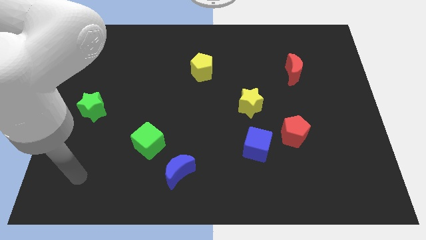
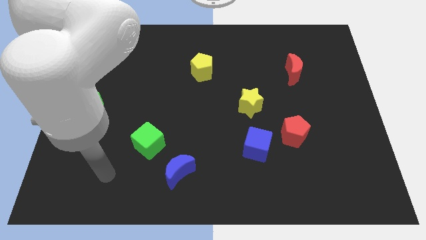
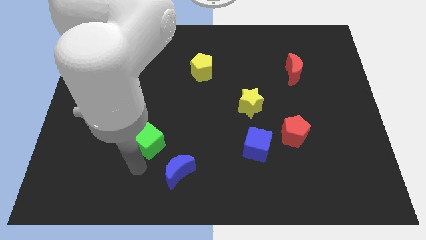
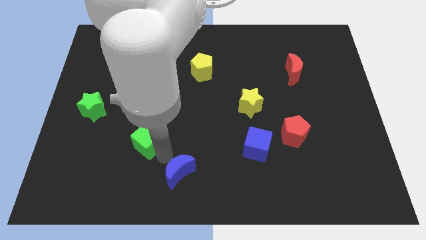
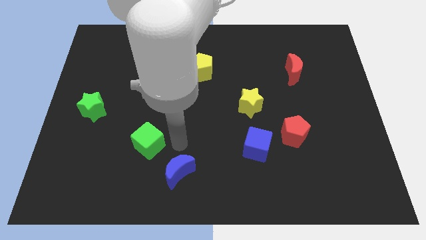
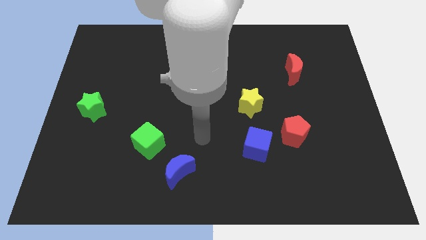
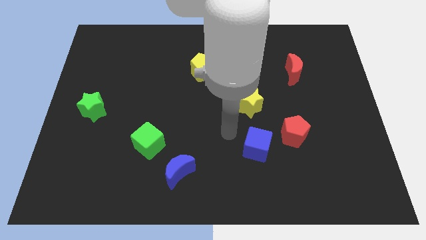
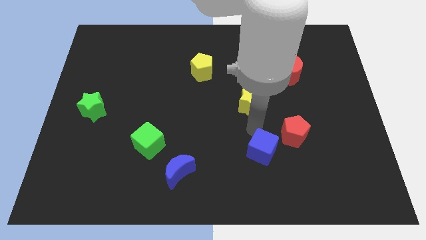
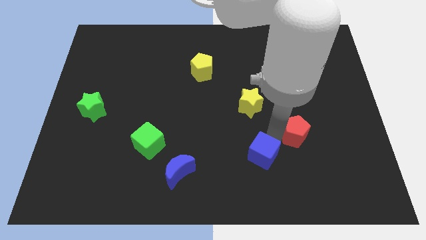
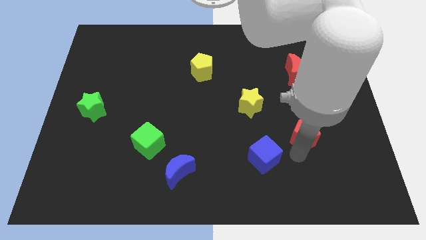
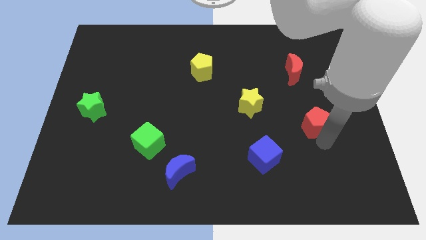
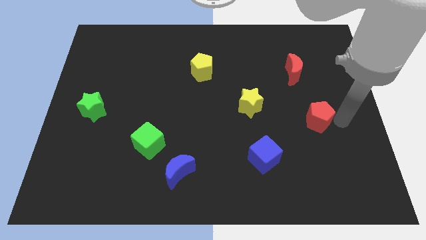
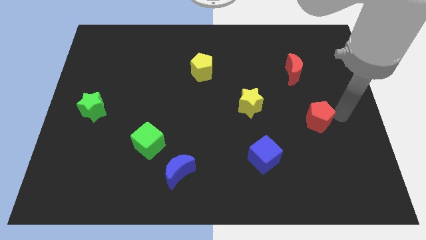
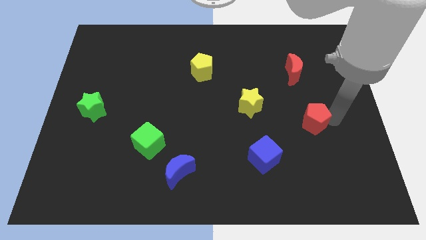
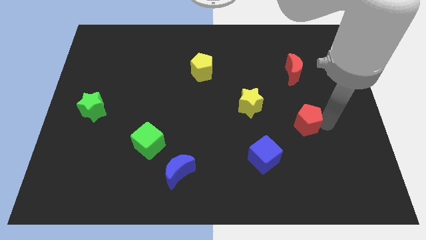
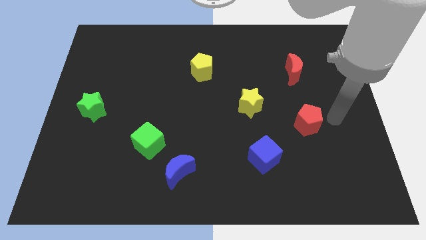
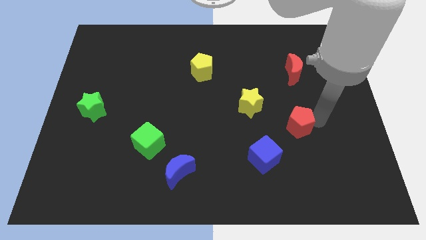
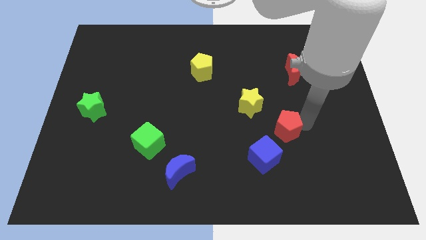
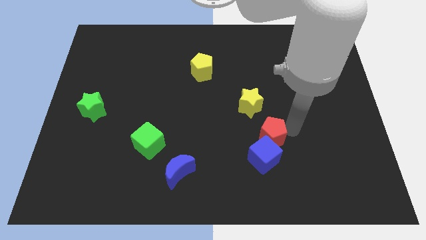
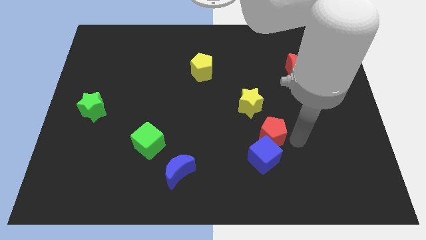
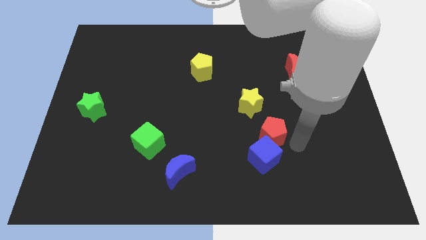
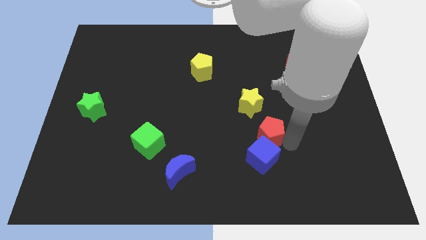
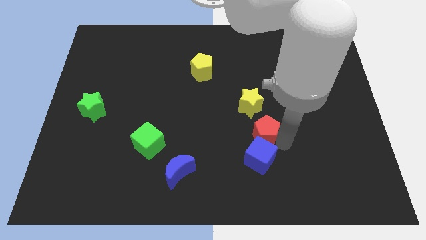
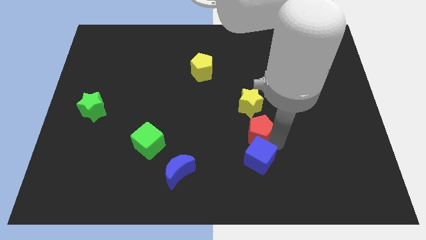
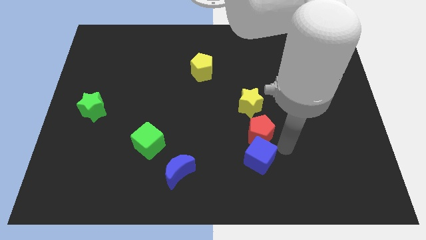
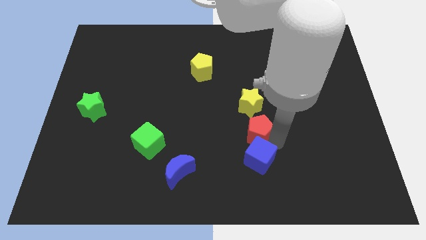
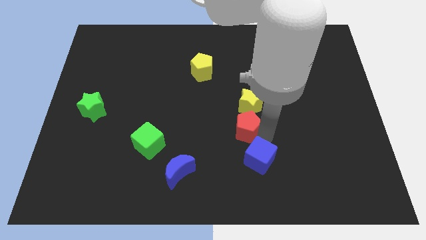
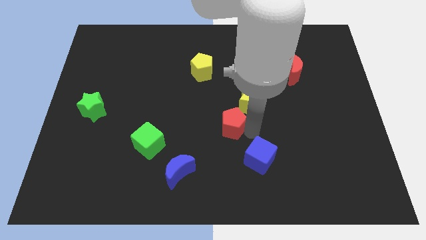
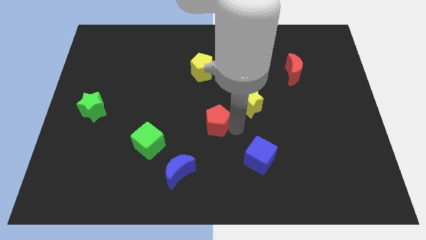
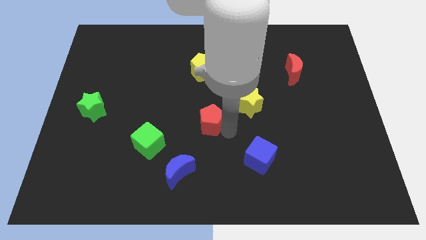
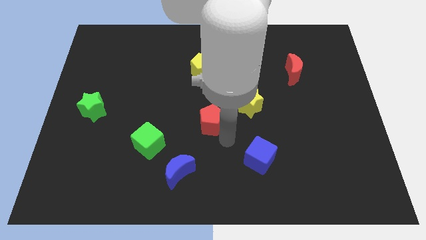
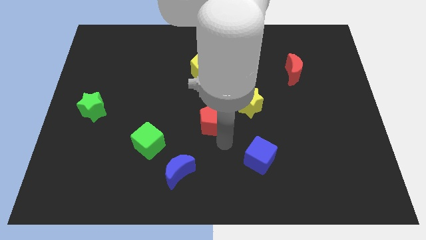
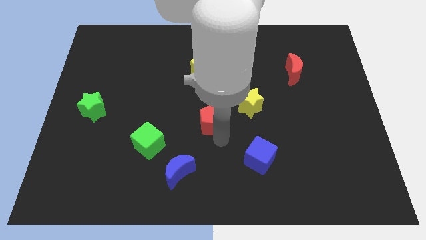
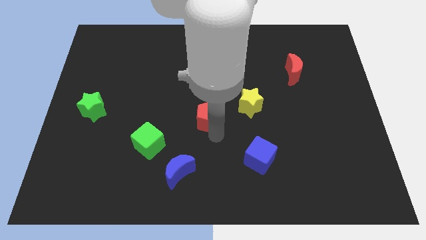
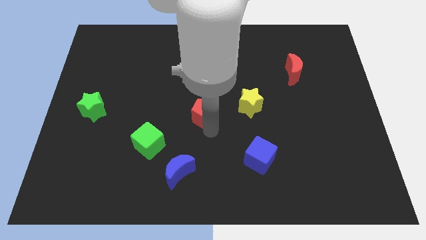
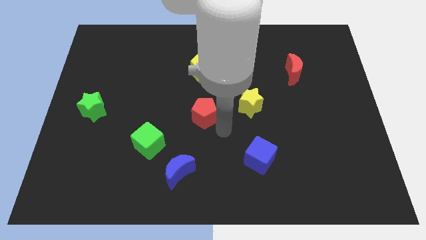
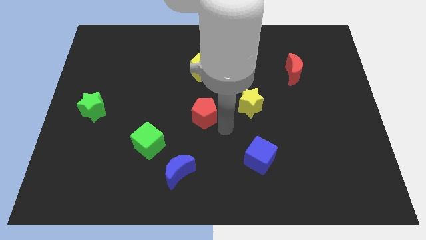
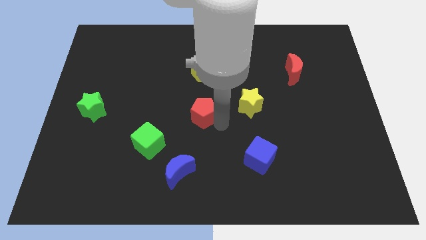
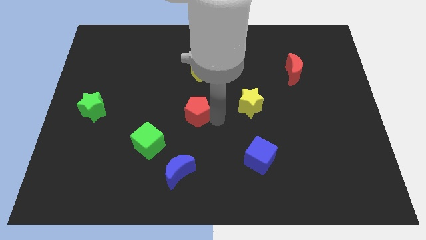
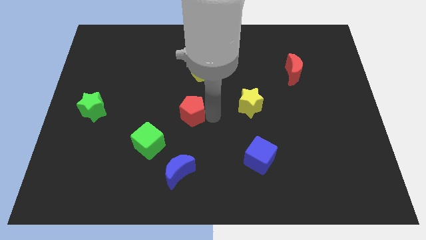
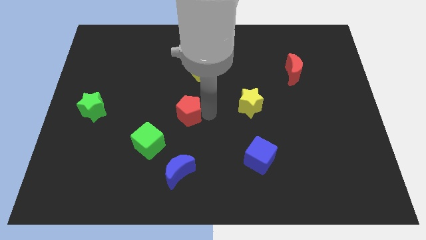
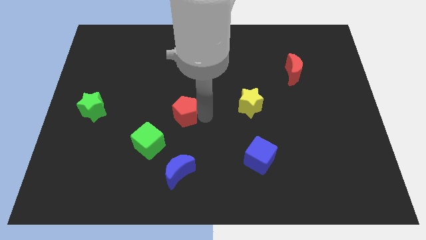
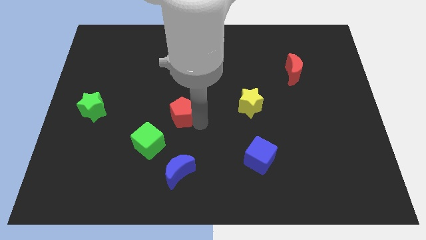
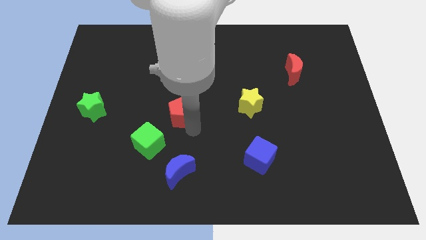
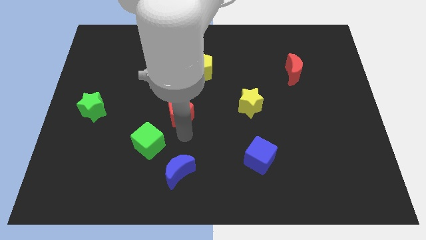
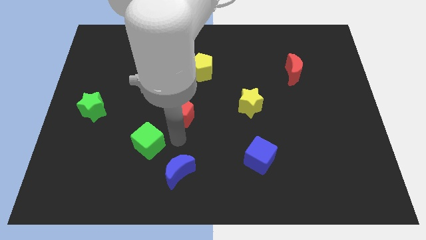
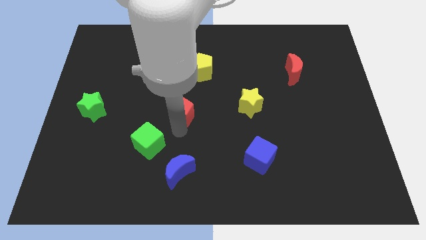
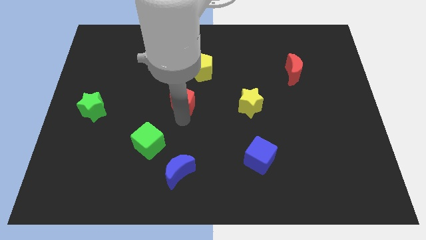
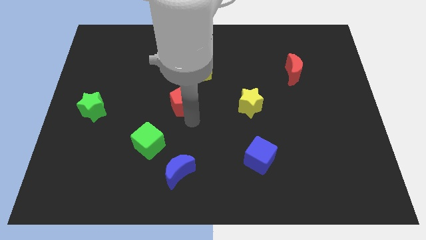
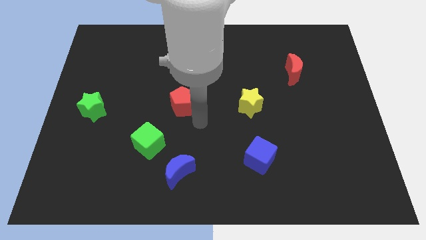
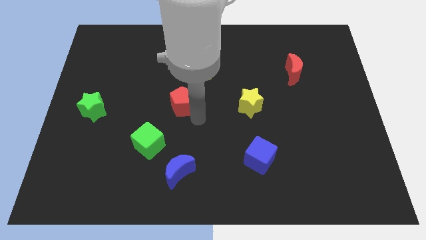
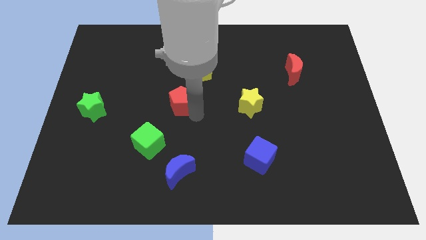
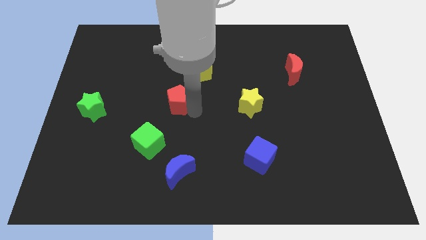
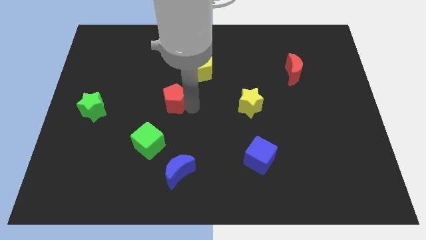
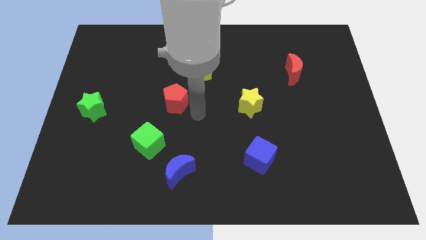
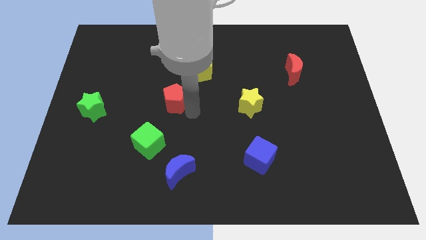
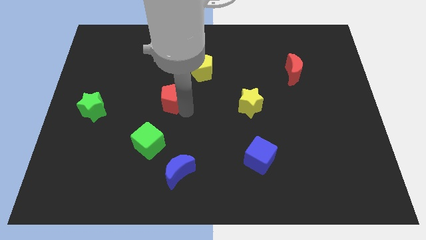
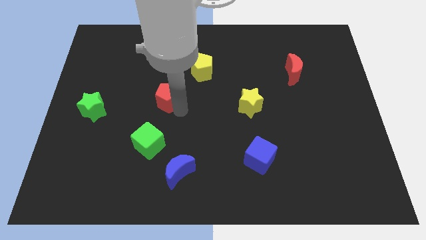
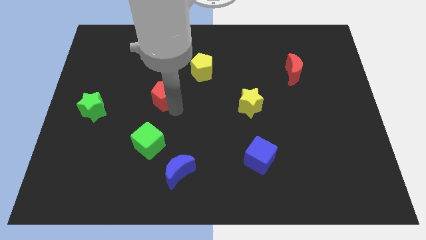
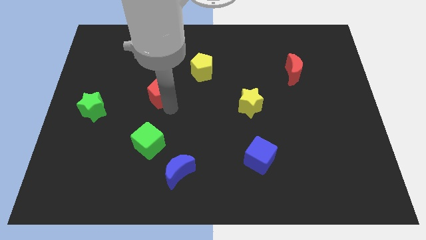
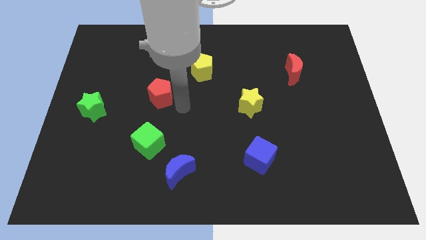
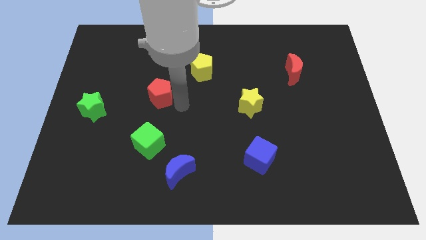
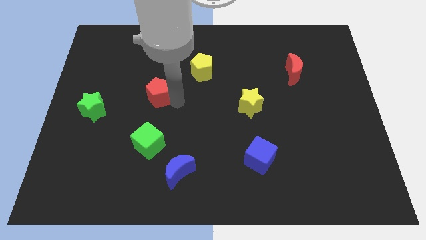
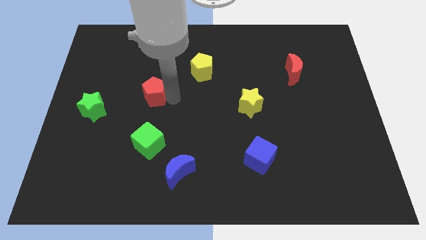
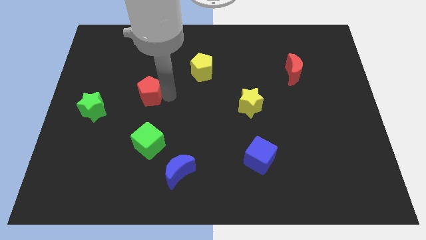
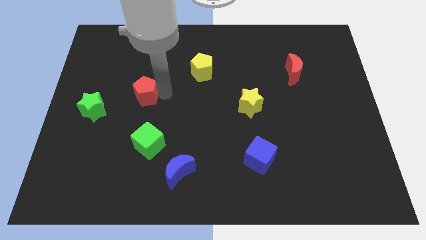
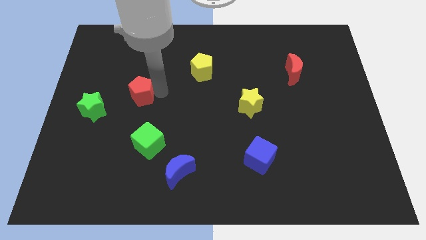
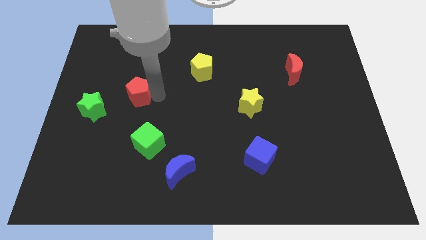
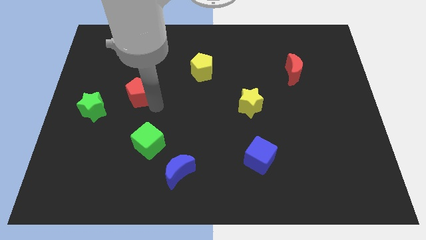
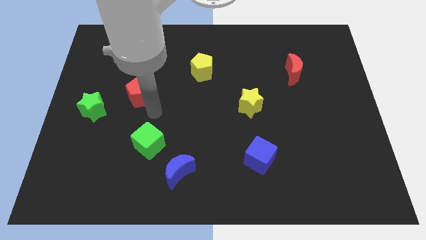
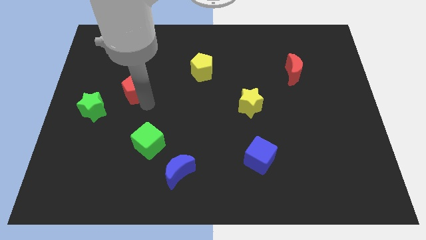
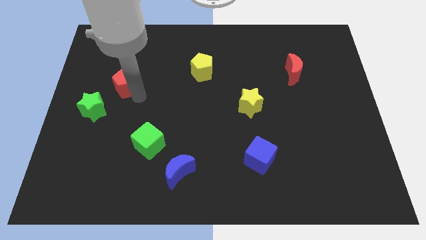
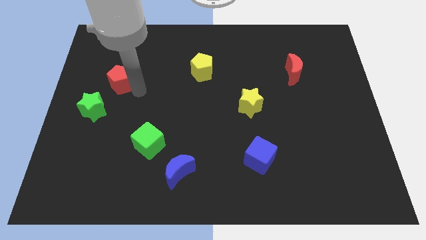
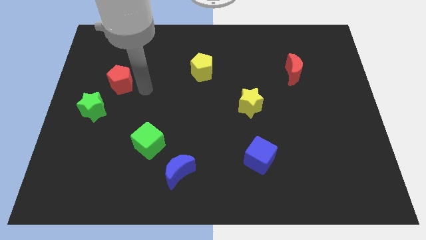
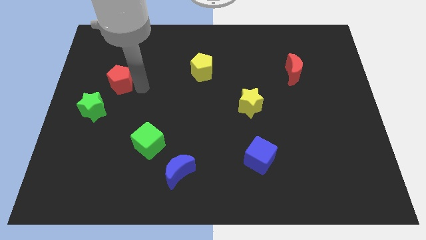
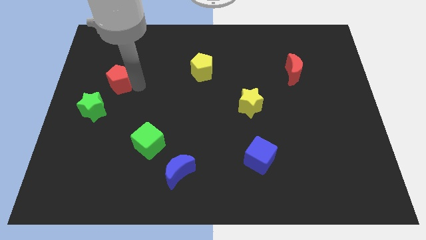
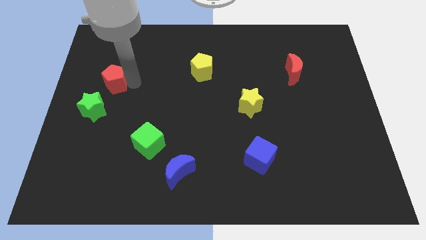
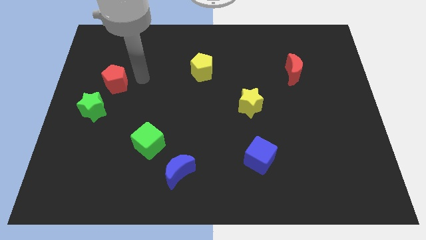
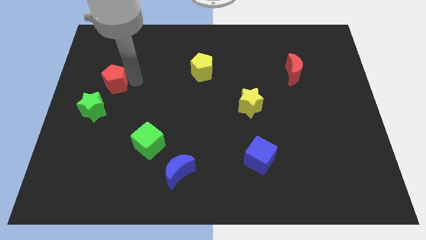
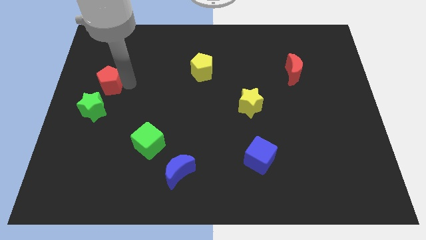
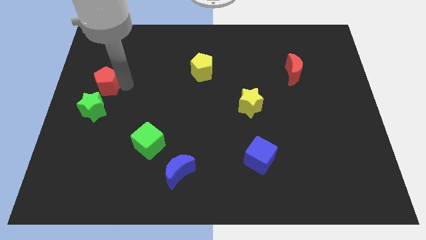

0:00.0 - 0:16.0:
put the red pentagon to the left side
